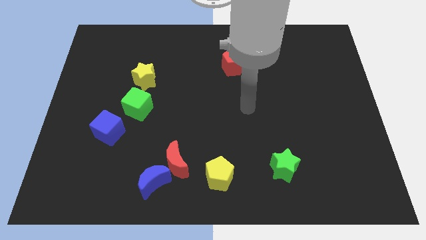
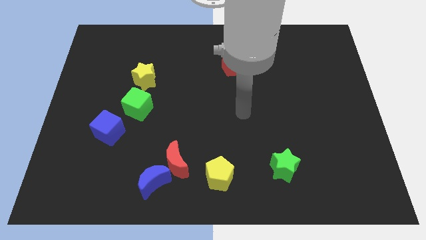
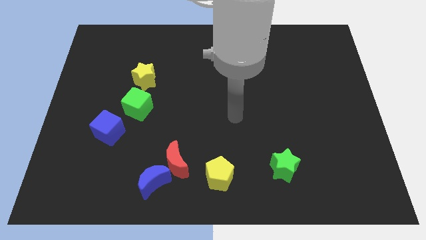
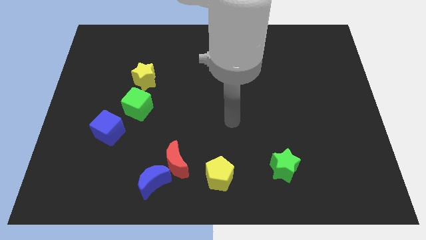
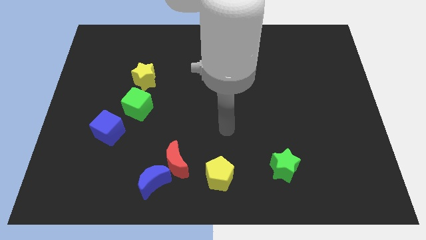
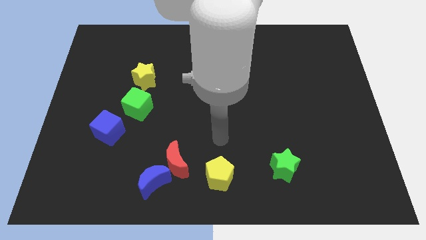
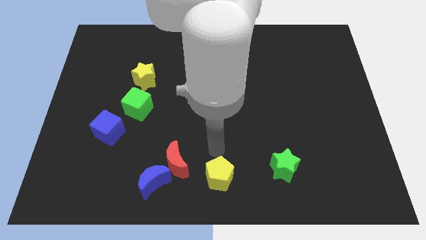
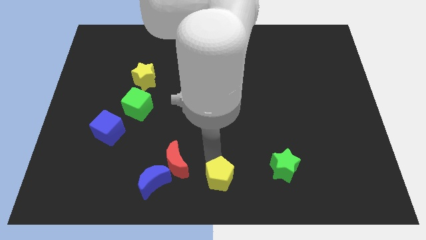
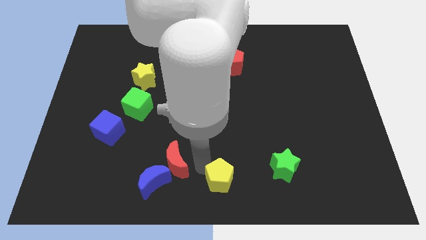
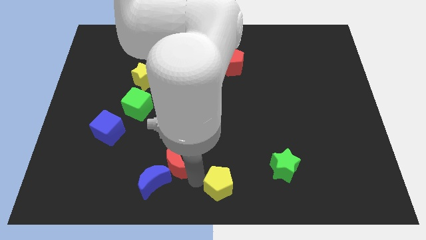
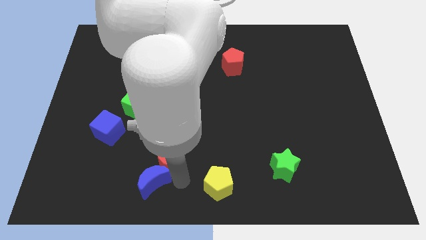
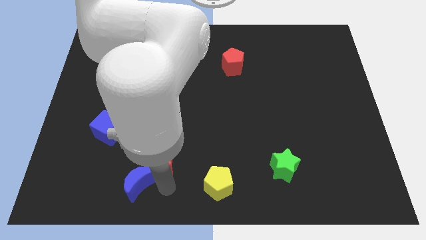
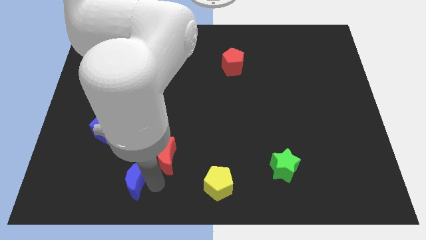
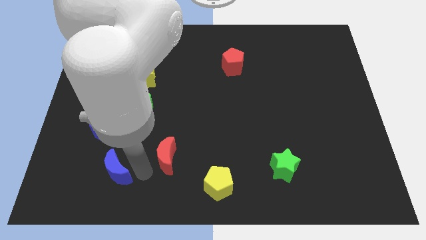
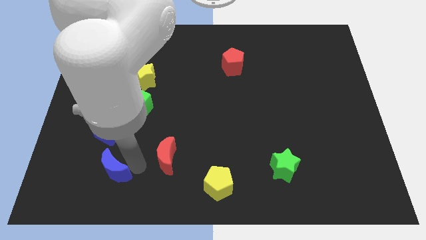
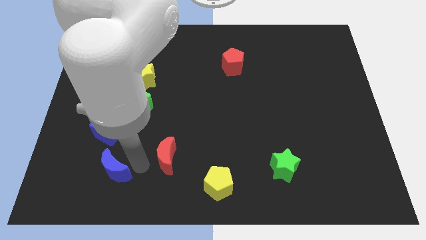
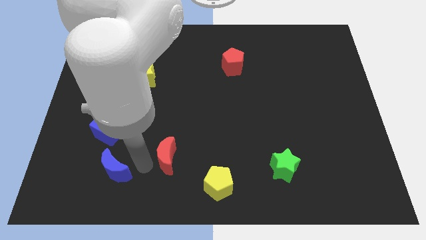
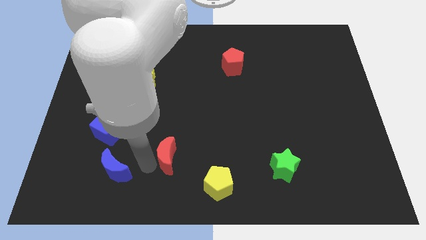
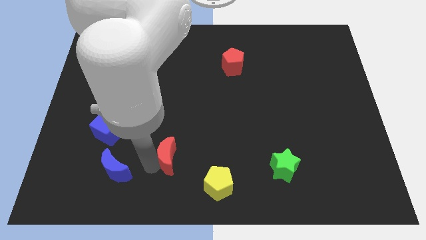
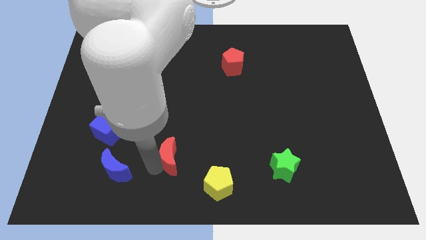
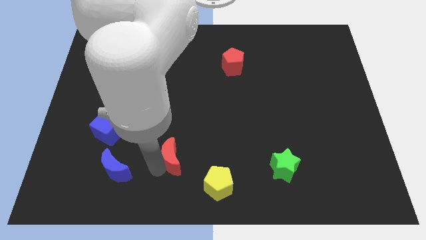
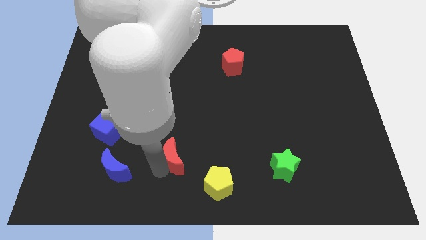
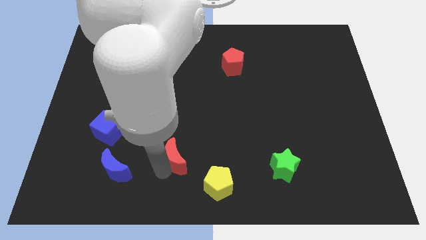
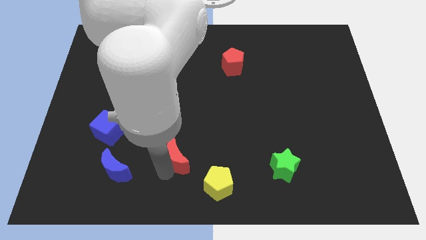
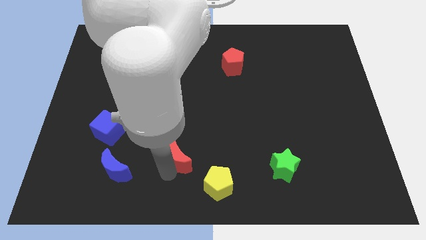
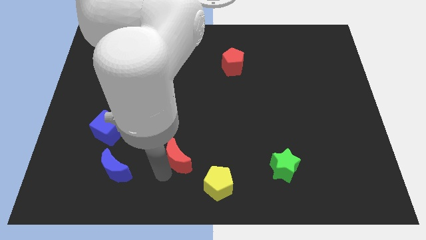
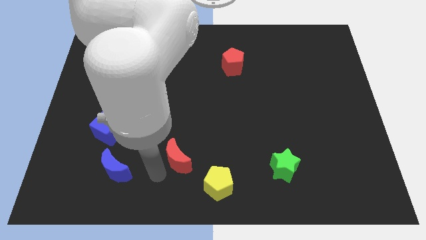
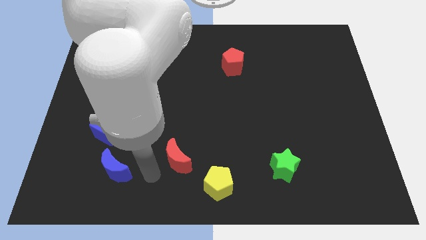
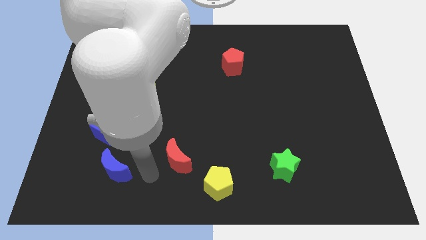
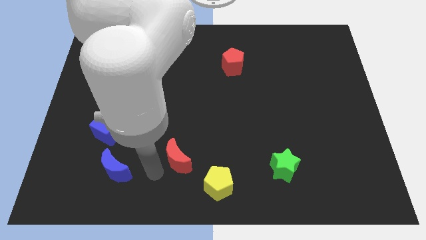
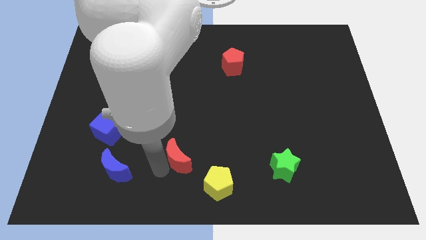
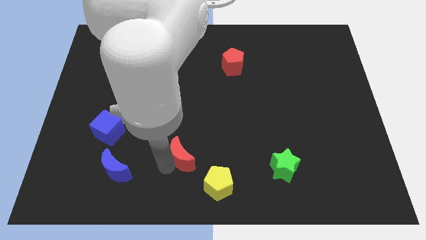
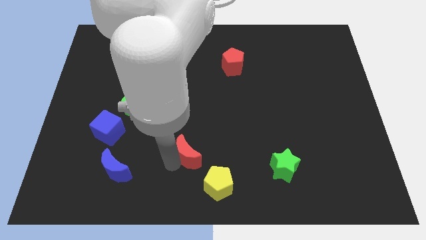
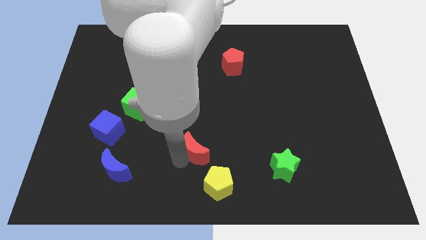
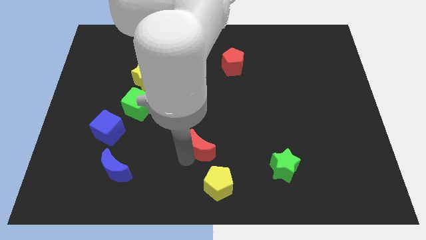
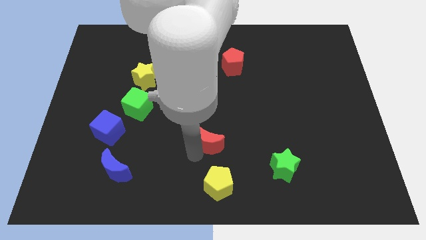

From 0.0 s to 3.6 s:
move the red moon a little bit upwards and then to the right

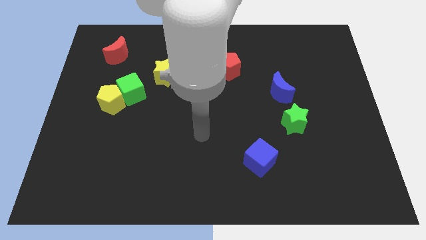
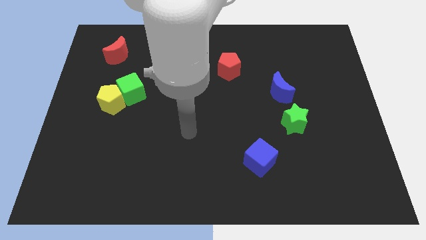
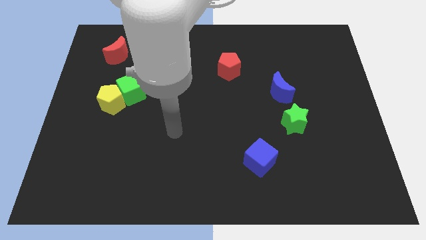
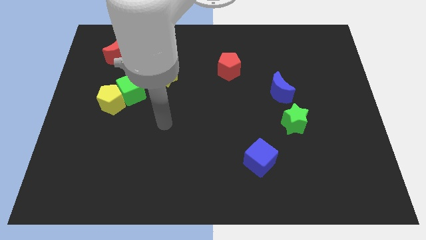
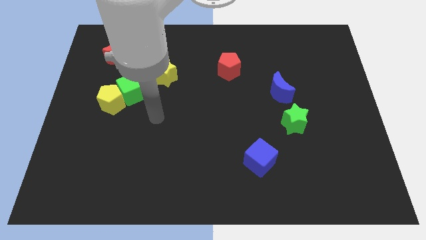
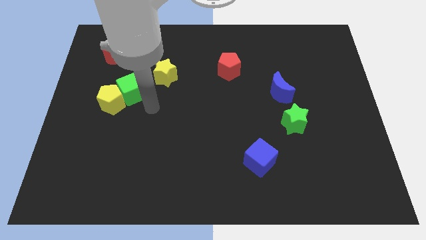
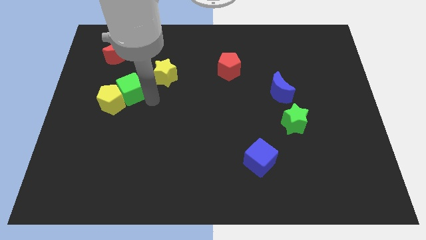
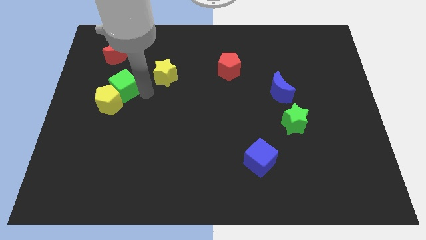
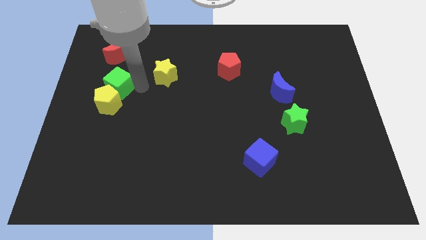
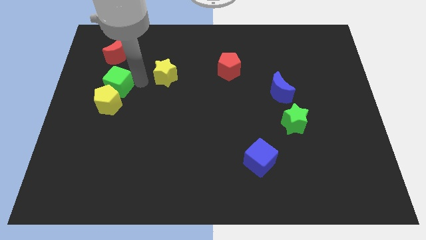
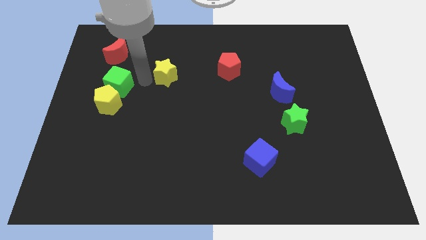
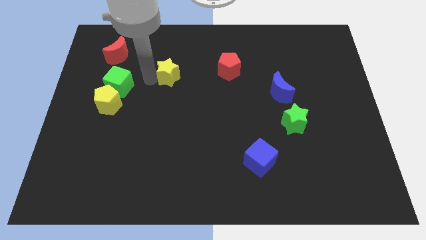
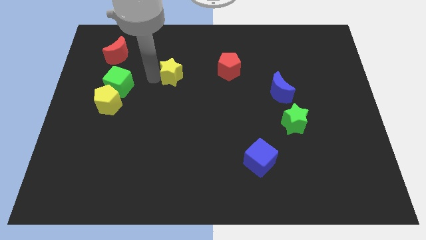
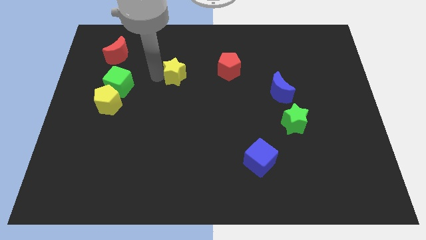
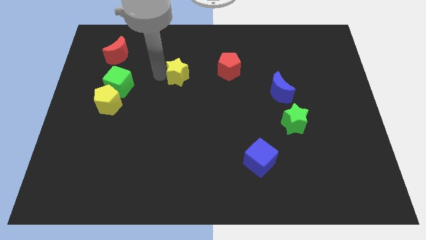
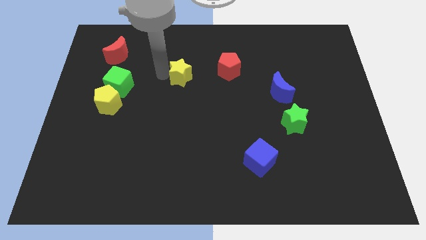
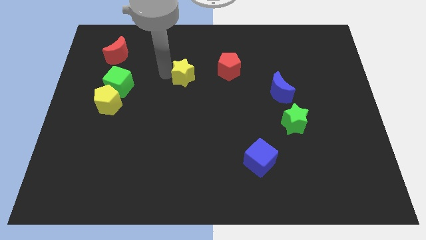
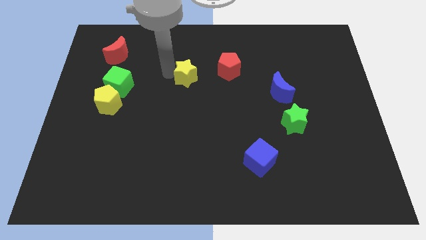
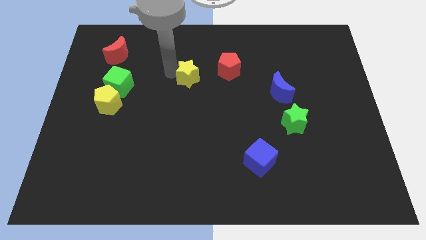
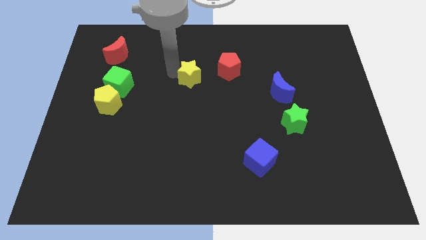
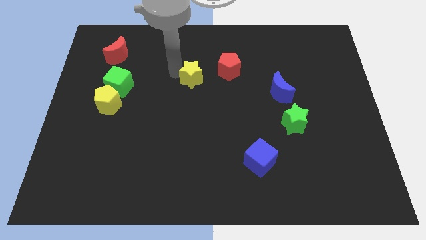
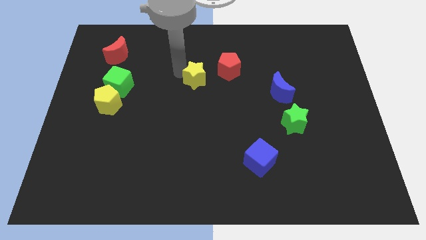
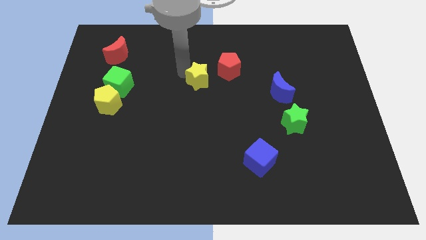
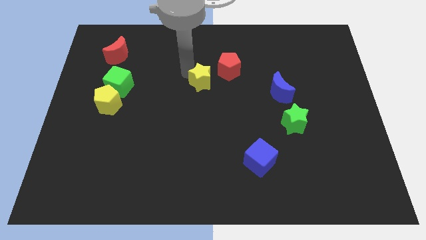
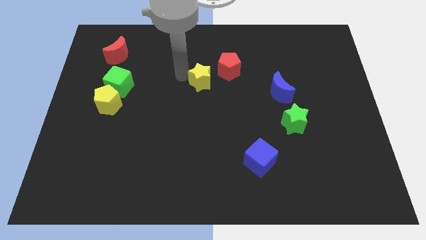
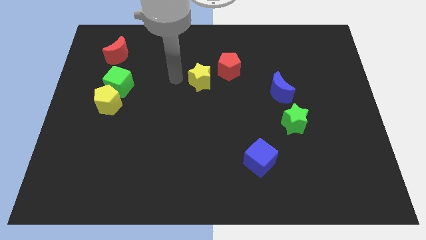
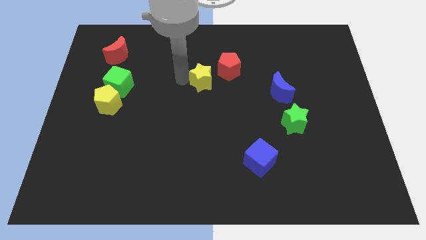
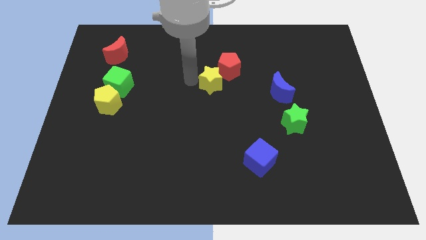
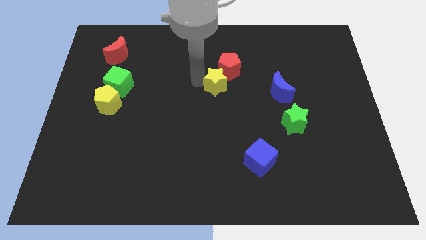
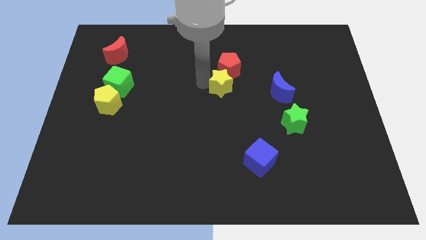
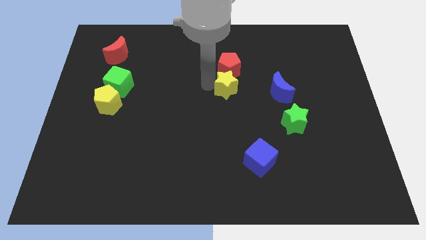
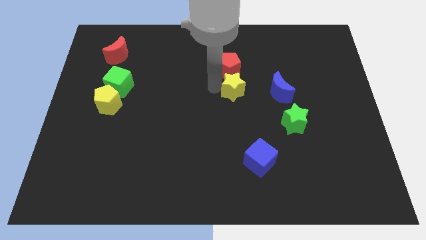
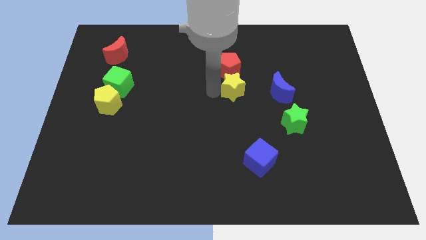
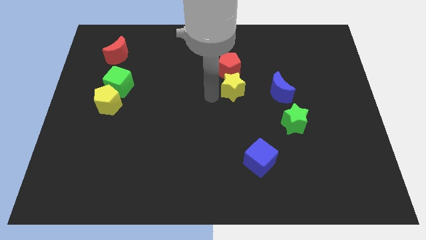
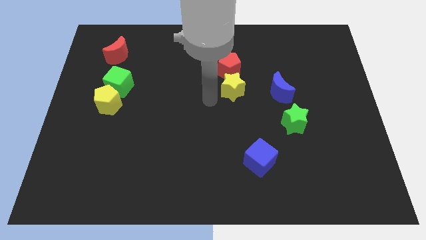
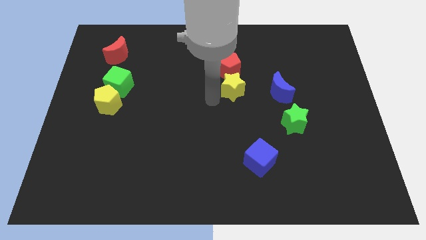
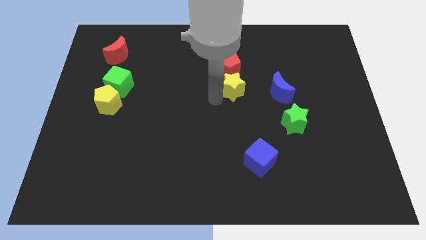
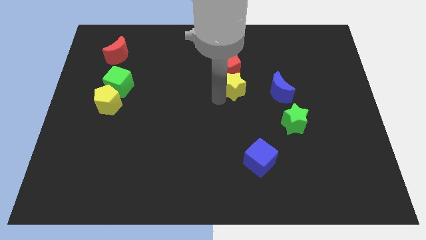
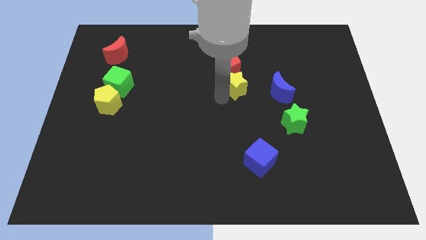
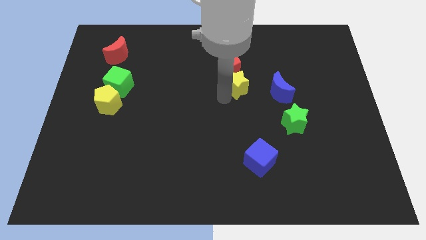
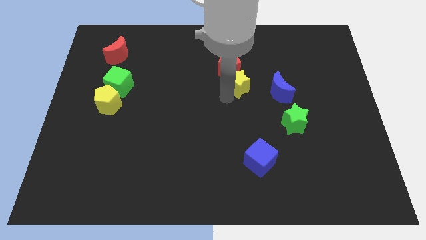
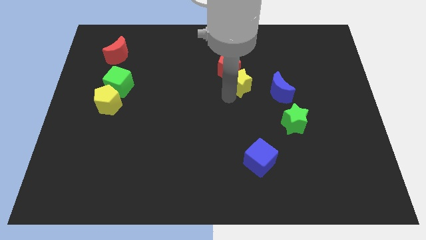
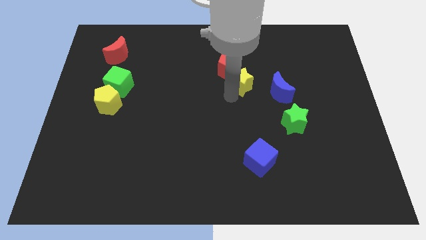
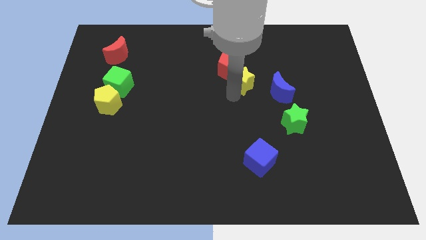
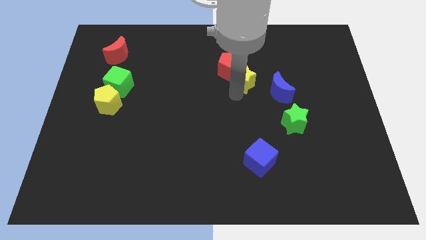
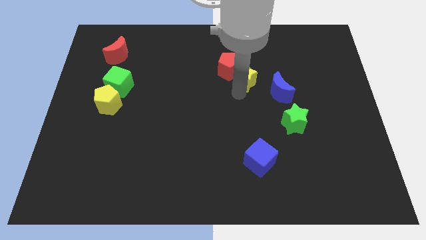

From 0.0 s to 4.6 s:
push the yellow star to the right

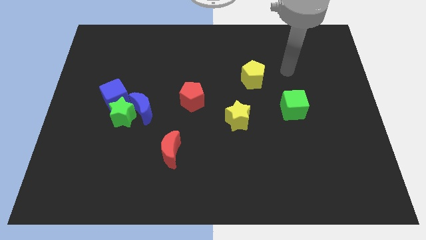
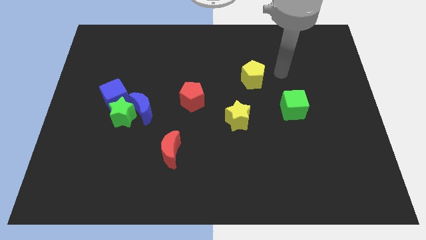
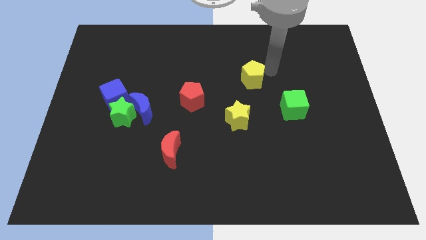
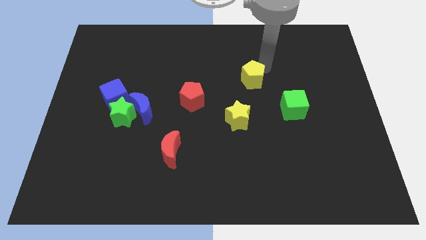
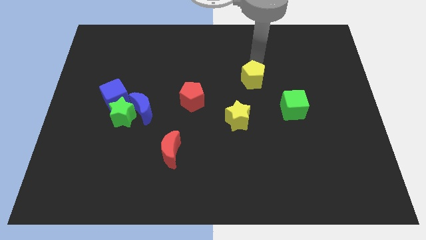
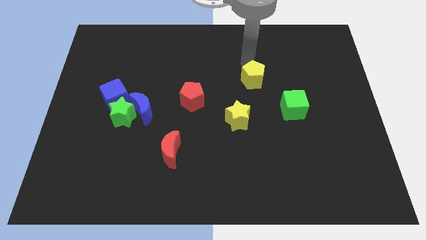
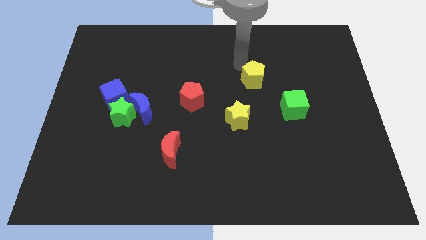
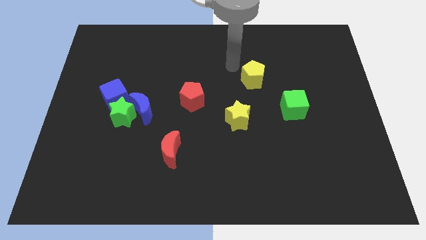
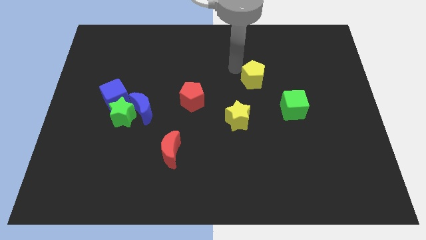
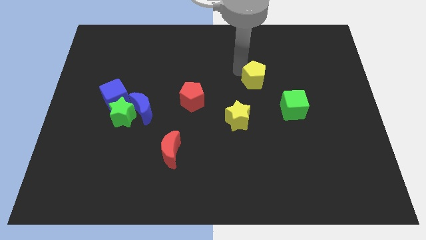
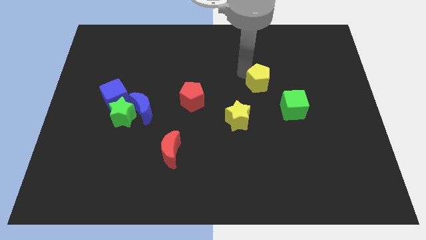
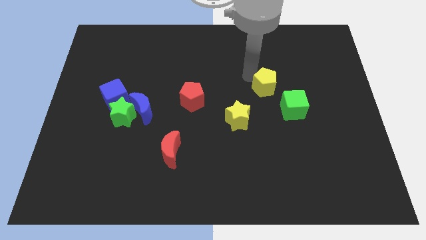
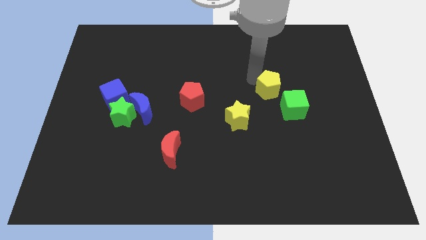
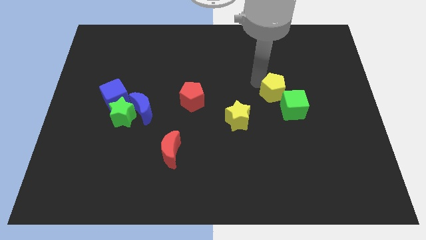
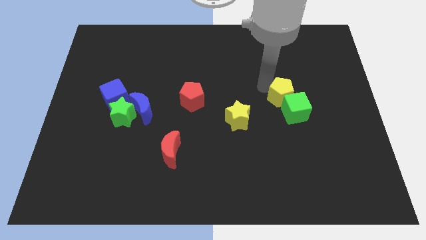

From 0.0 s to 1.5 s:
slide the yellow pentagon down and to the right a little
